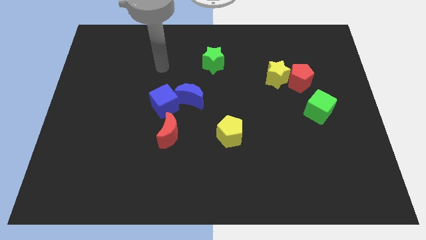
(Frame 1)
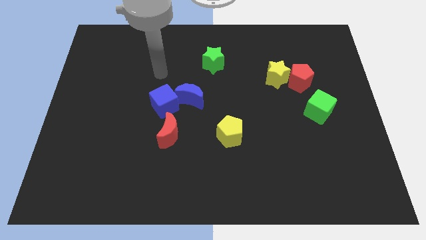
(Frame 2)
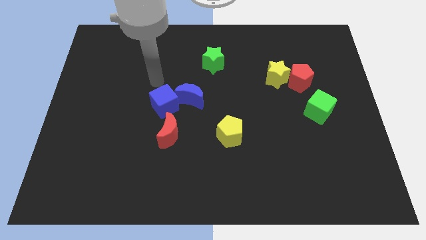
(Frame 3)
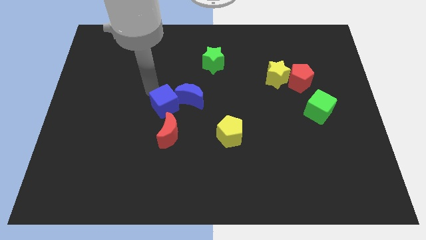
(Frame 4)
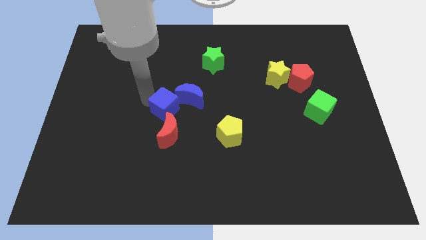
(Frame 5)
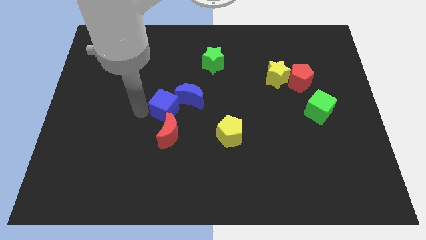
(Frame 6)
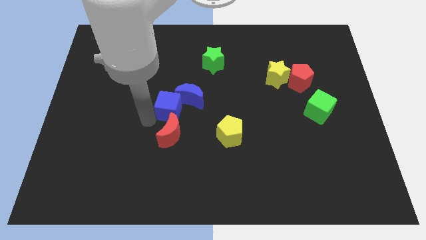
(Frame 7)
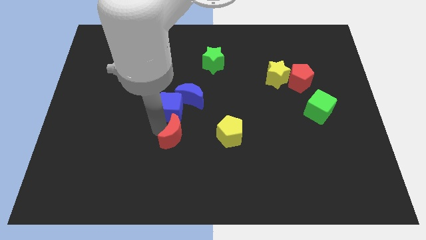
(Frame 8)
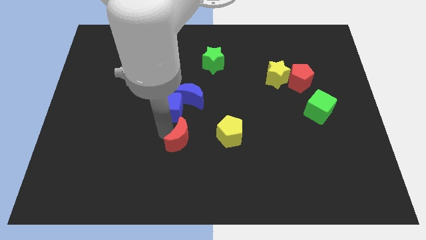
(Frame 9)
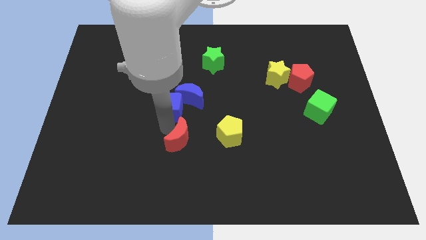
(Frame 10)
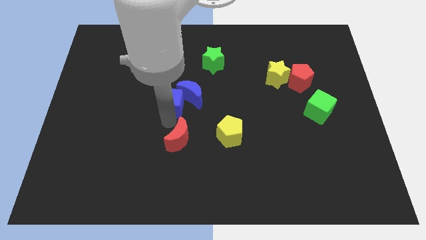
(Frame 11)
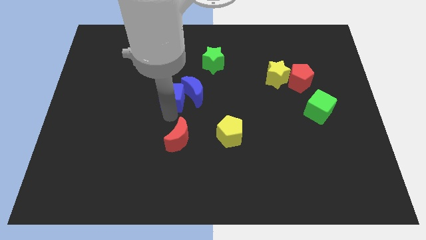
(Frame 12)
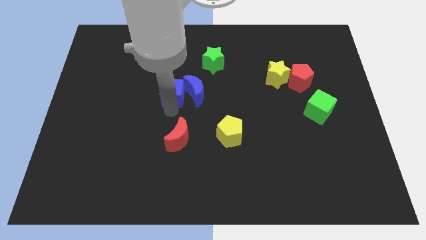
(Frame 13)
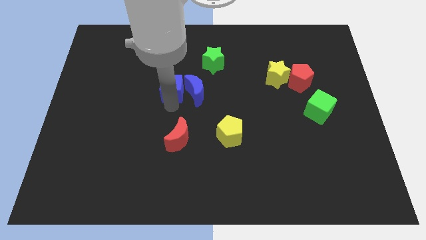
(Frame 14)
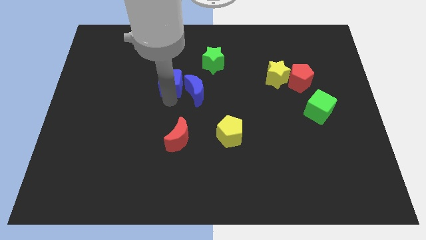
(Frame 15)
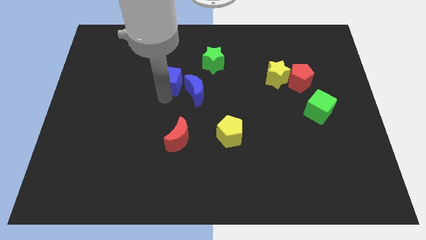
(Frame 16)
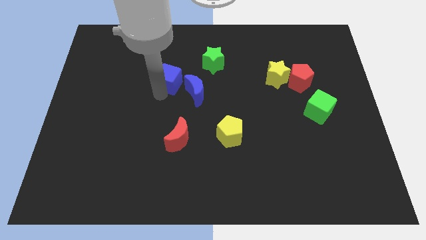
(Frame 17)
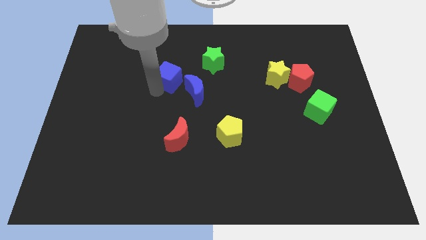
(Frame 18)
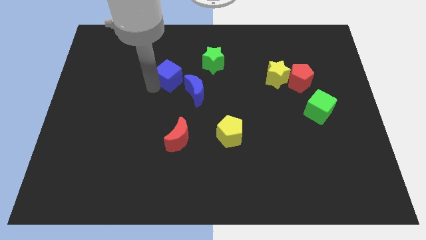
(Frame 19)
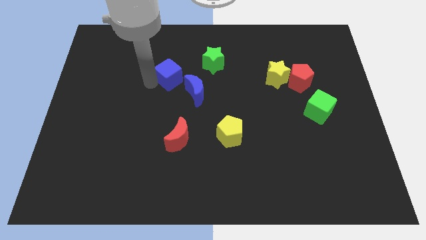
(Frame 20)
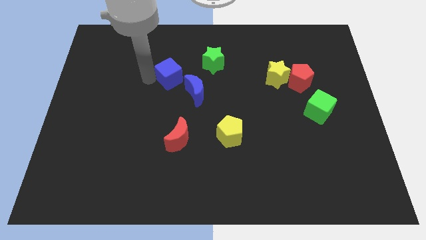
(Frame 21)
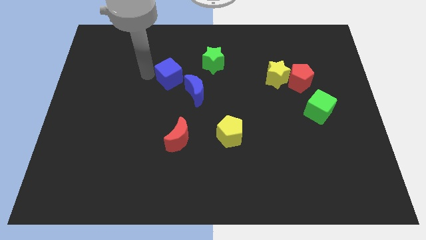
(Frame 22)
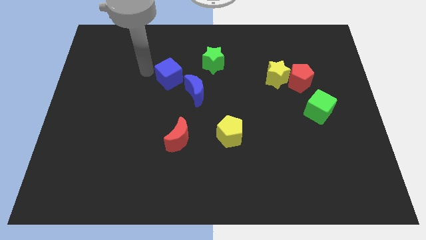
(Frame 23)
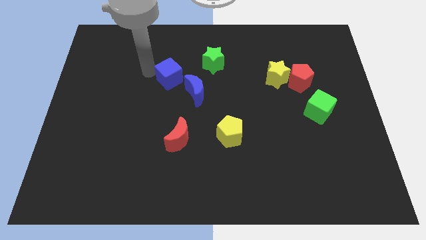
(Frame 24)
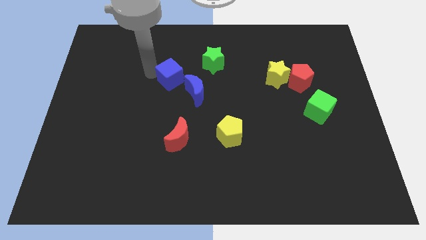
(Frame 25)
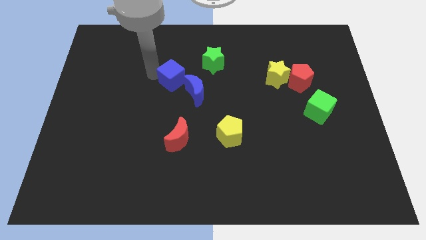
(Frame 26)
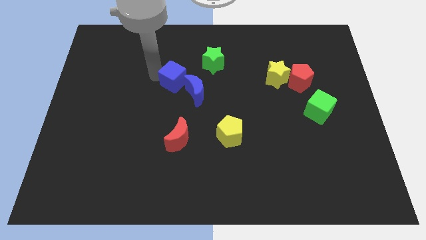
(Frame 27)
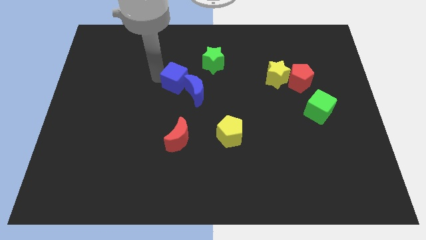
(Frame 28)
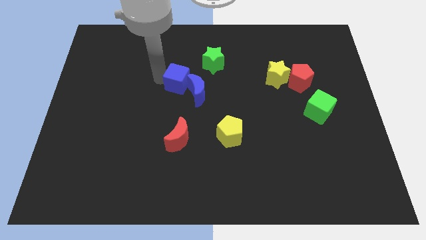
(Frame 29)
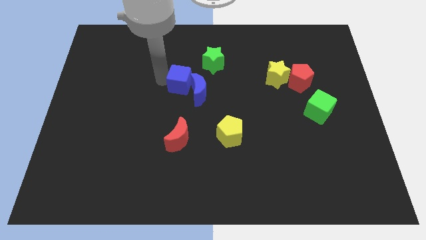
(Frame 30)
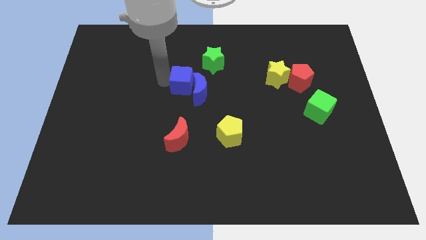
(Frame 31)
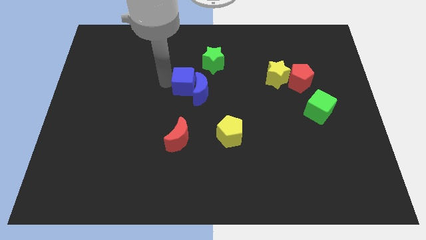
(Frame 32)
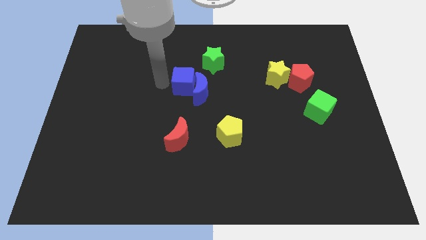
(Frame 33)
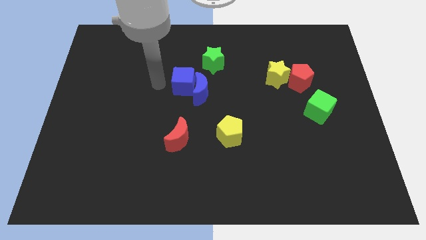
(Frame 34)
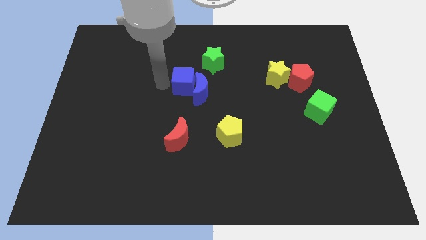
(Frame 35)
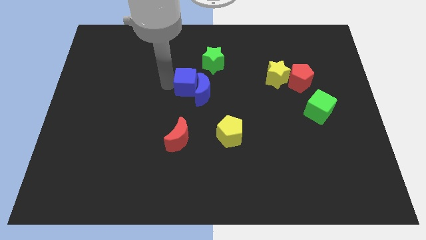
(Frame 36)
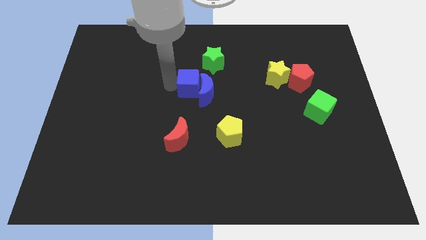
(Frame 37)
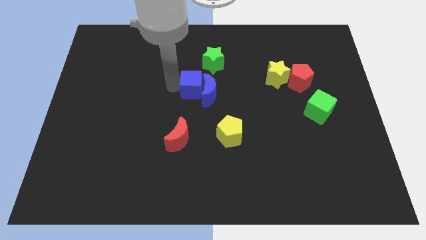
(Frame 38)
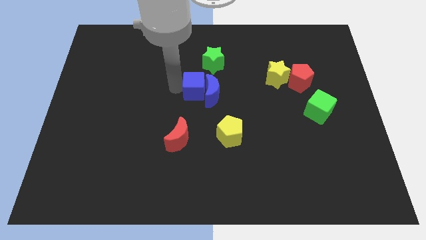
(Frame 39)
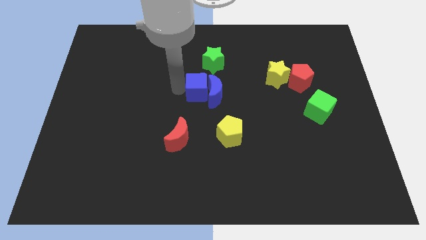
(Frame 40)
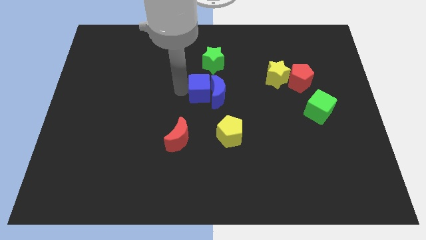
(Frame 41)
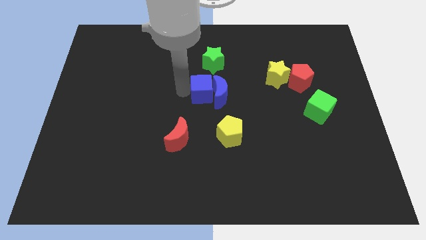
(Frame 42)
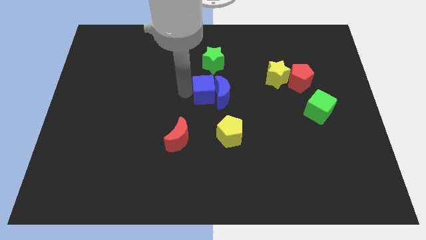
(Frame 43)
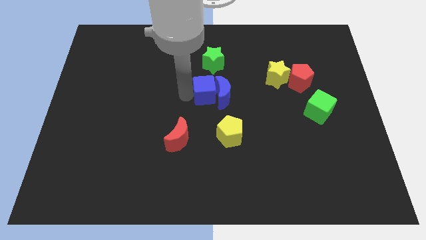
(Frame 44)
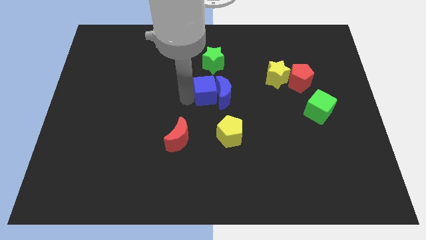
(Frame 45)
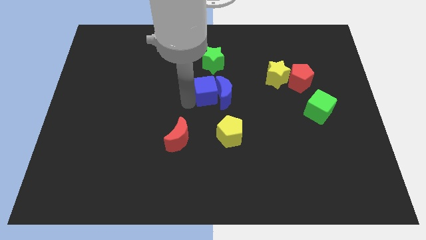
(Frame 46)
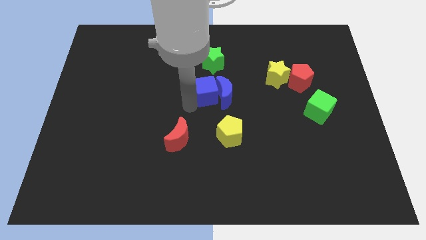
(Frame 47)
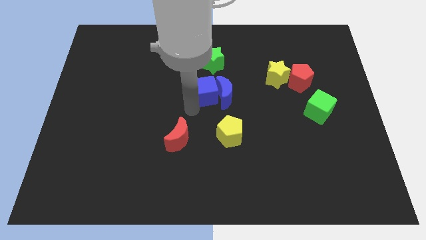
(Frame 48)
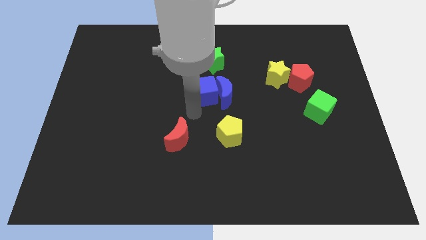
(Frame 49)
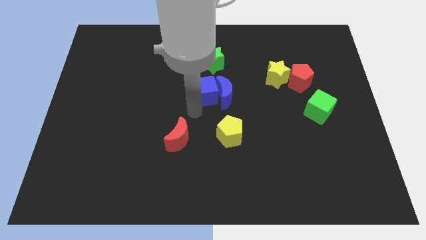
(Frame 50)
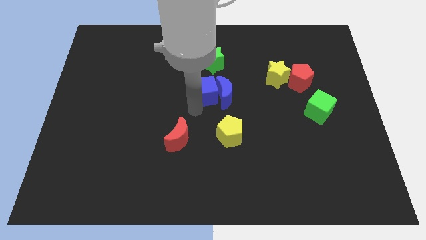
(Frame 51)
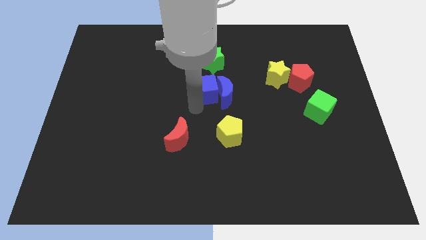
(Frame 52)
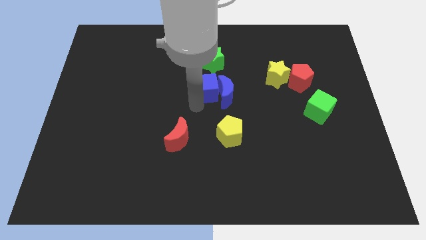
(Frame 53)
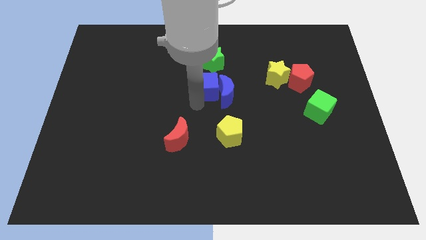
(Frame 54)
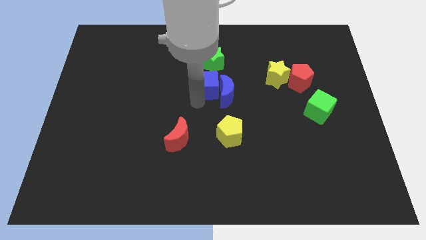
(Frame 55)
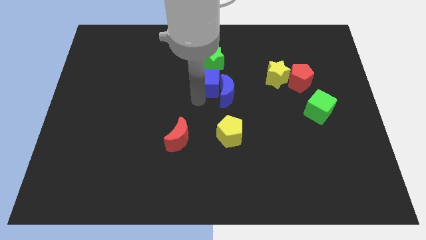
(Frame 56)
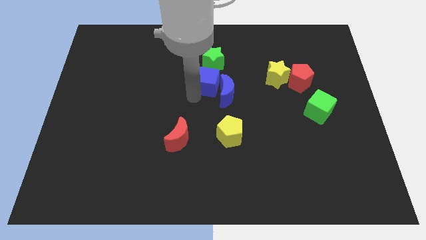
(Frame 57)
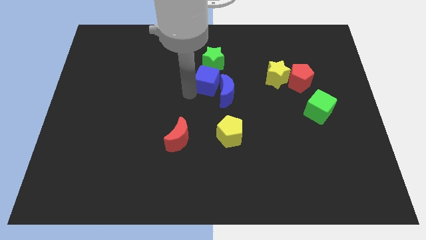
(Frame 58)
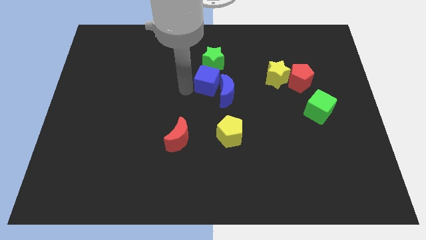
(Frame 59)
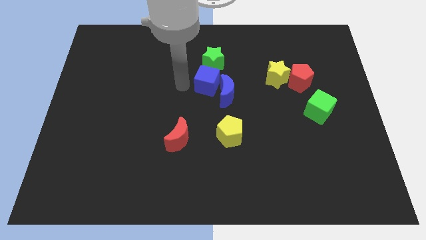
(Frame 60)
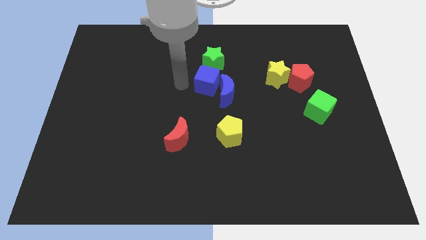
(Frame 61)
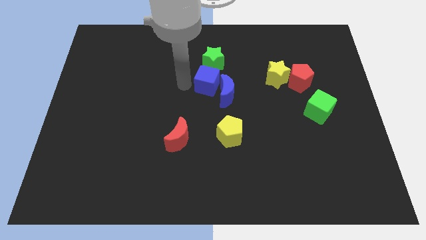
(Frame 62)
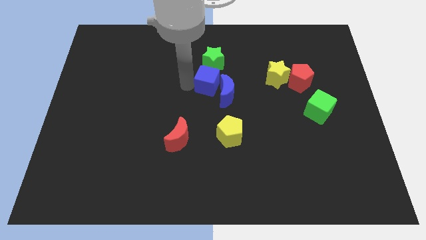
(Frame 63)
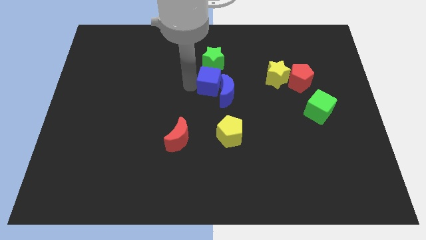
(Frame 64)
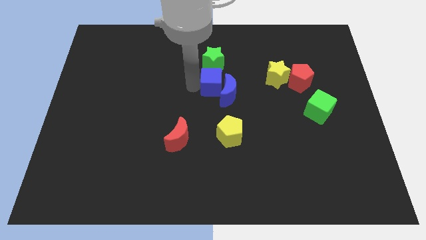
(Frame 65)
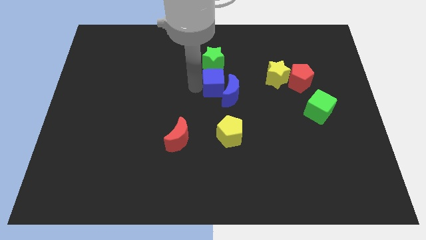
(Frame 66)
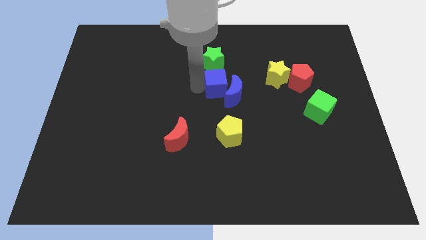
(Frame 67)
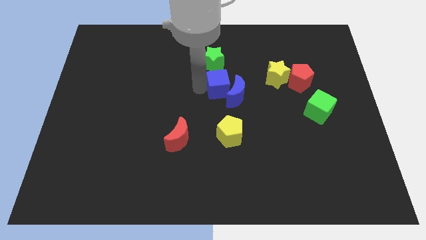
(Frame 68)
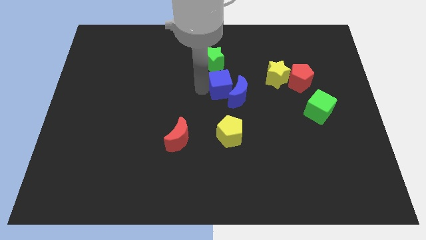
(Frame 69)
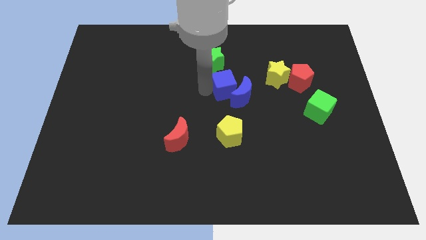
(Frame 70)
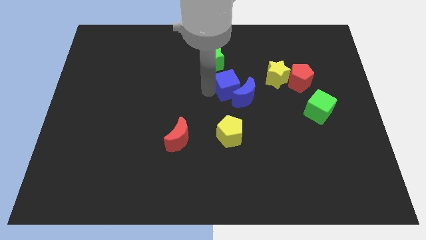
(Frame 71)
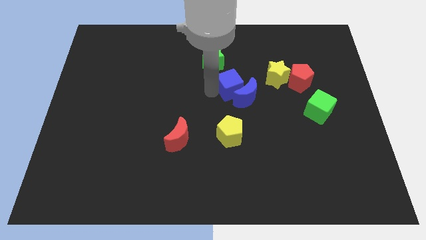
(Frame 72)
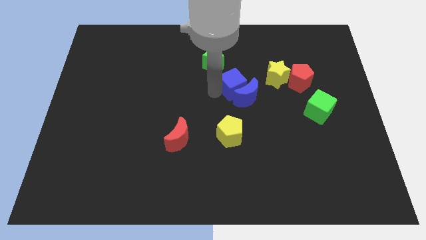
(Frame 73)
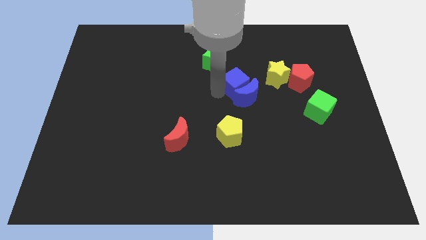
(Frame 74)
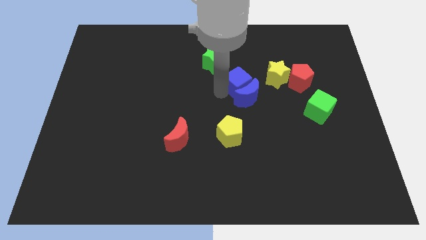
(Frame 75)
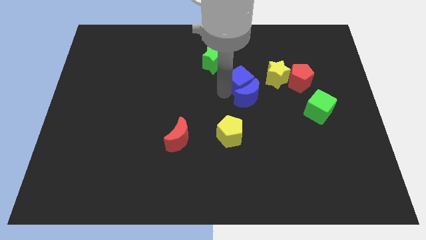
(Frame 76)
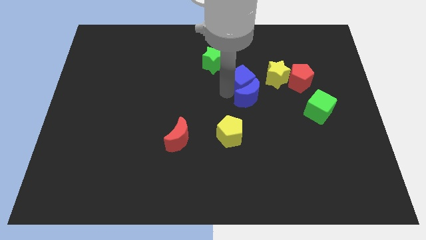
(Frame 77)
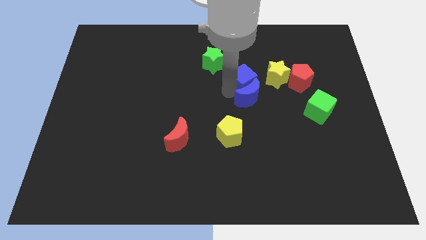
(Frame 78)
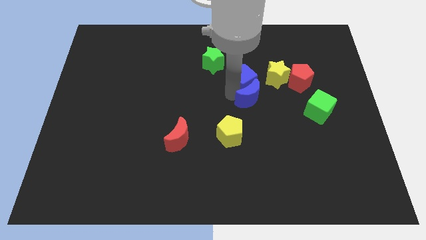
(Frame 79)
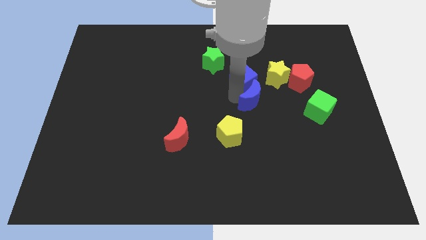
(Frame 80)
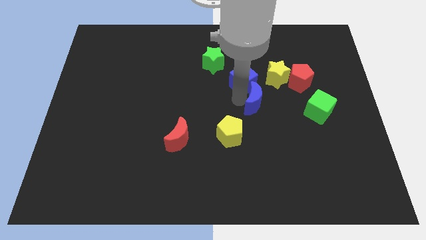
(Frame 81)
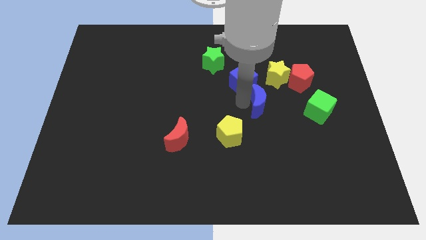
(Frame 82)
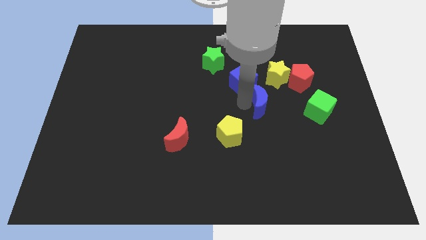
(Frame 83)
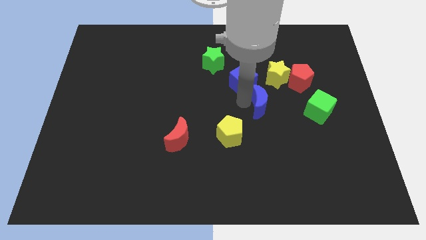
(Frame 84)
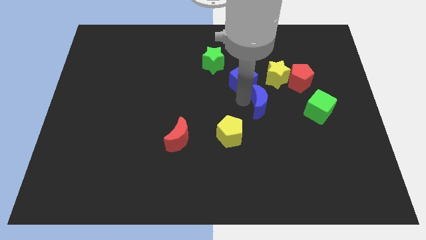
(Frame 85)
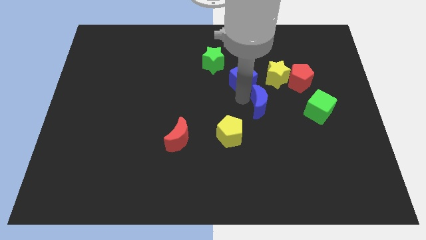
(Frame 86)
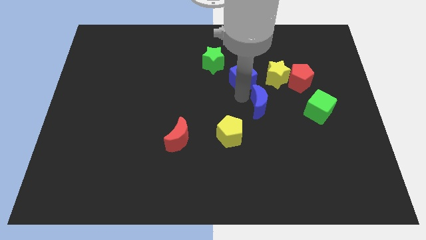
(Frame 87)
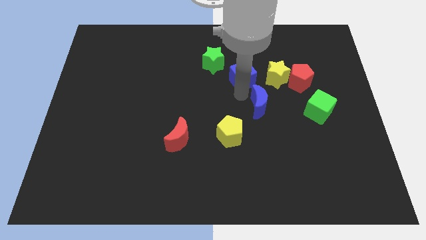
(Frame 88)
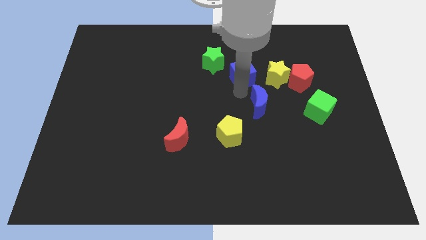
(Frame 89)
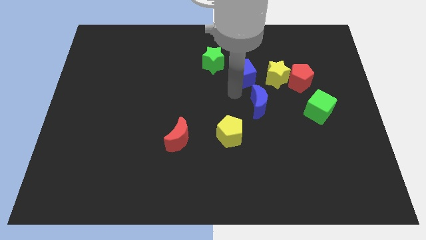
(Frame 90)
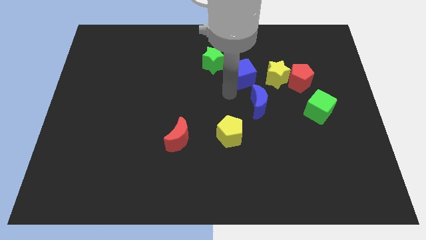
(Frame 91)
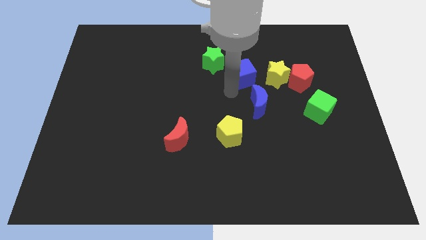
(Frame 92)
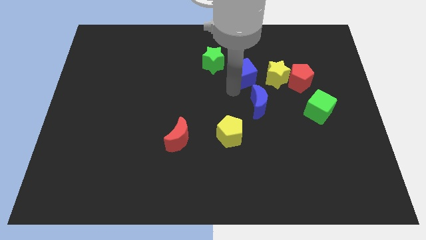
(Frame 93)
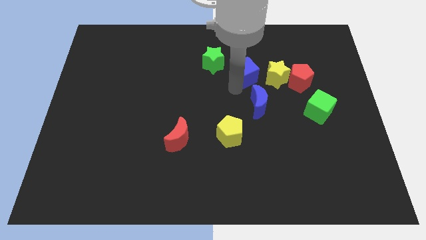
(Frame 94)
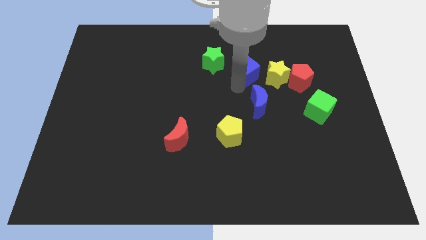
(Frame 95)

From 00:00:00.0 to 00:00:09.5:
push the blue cube to the top left side of the yellow star
